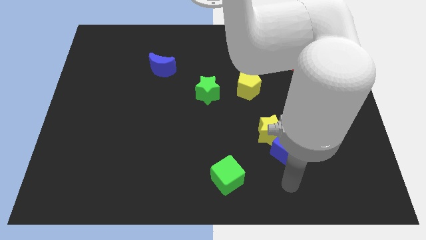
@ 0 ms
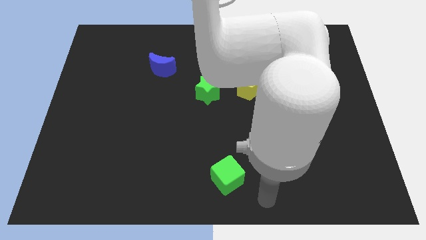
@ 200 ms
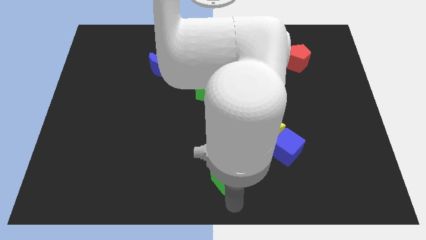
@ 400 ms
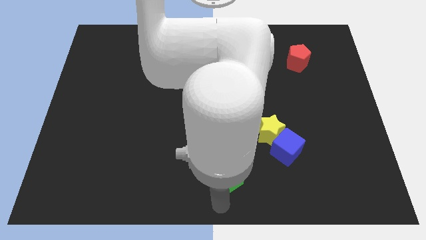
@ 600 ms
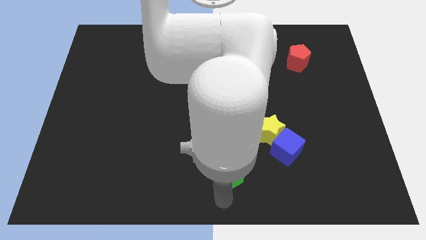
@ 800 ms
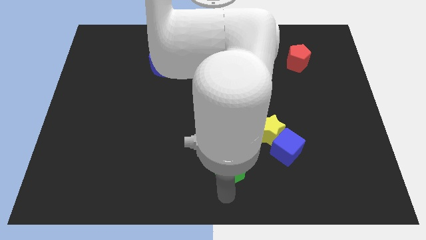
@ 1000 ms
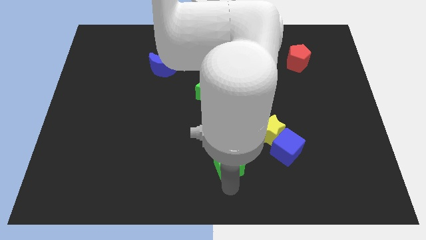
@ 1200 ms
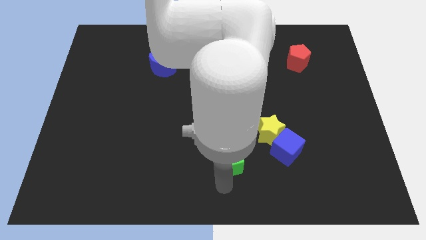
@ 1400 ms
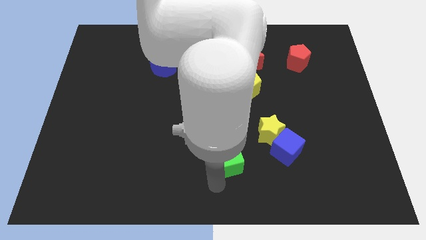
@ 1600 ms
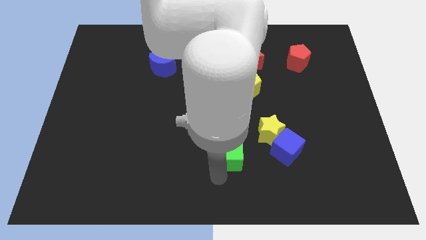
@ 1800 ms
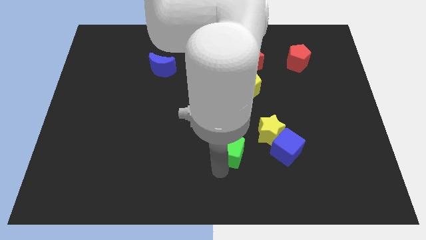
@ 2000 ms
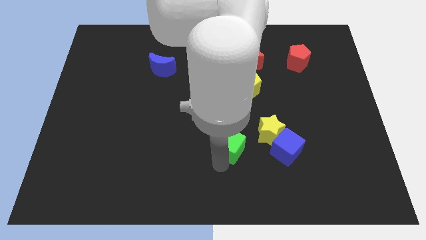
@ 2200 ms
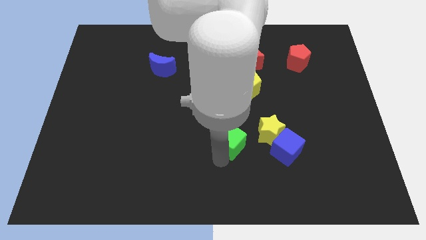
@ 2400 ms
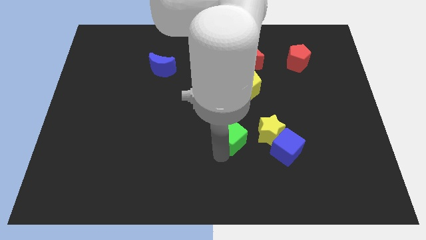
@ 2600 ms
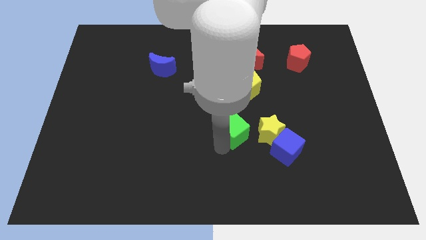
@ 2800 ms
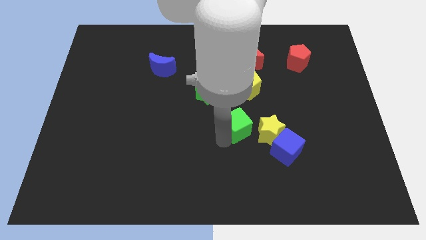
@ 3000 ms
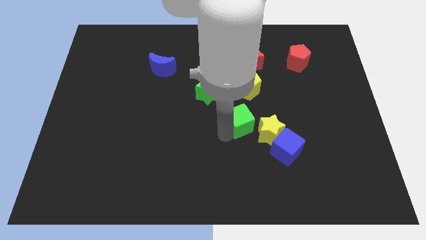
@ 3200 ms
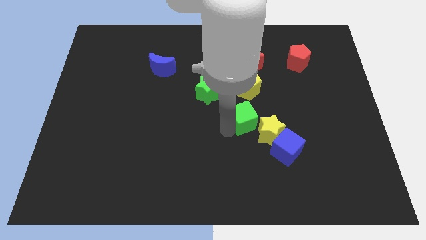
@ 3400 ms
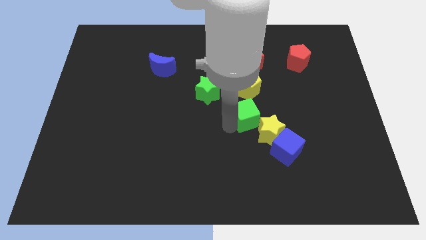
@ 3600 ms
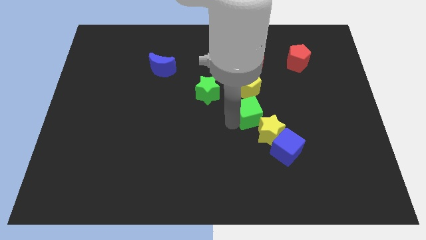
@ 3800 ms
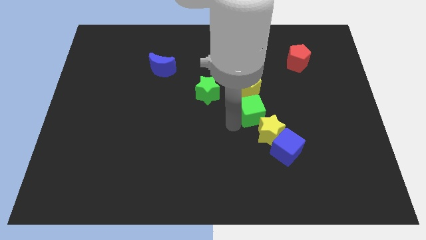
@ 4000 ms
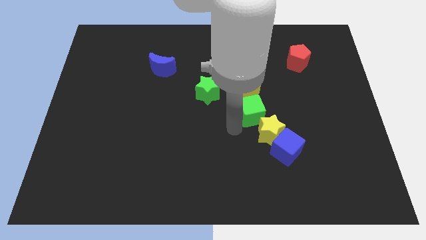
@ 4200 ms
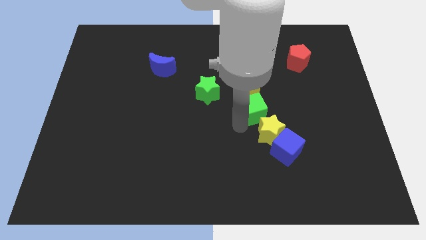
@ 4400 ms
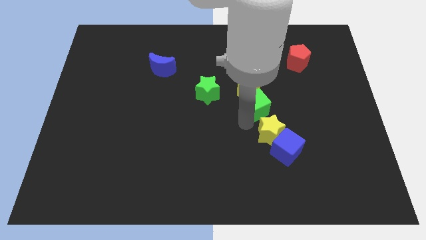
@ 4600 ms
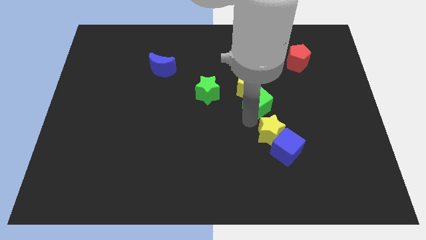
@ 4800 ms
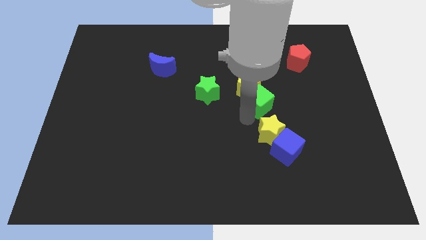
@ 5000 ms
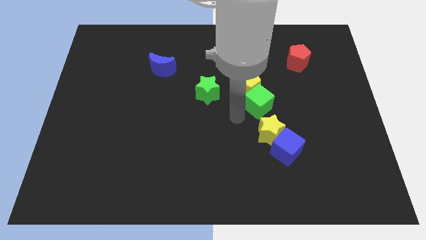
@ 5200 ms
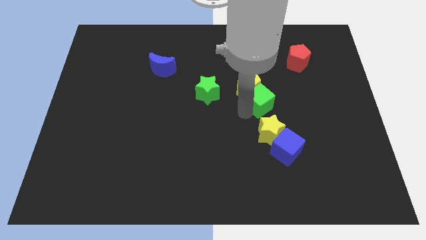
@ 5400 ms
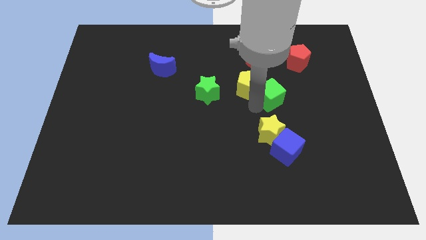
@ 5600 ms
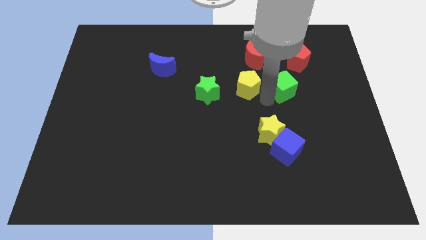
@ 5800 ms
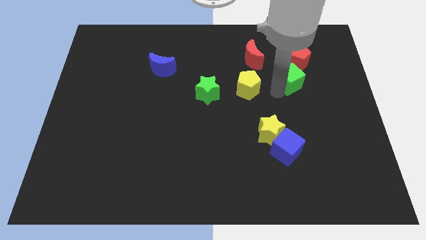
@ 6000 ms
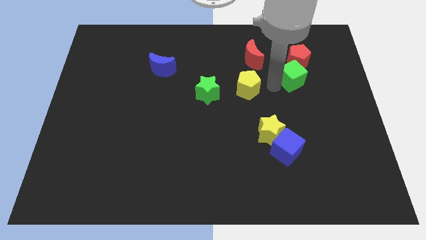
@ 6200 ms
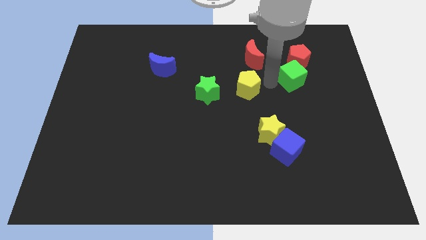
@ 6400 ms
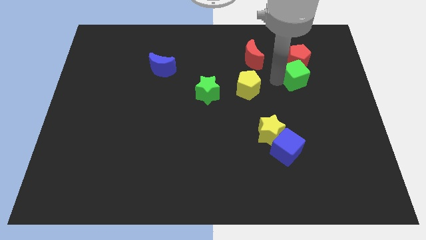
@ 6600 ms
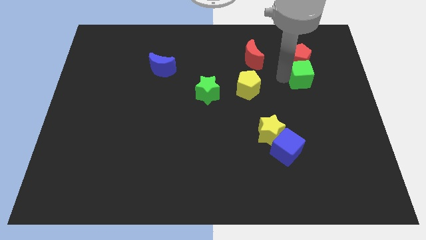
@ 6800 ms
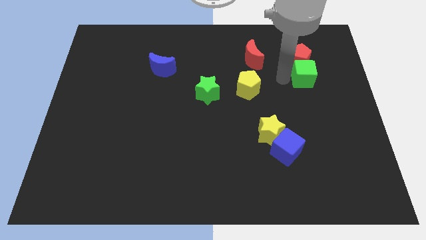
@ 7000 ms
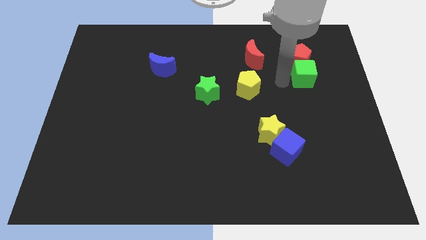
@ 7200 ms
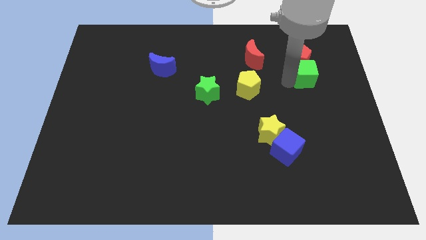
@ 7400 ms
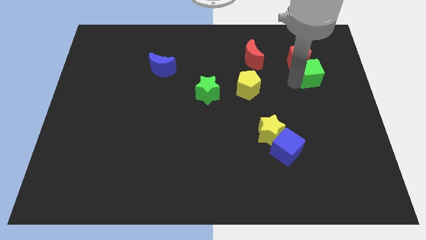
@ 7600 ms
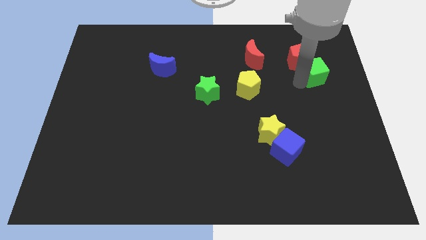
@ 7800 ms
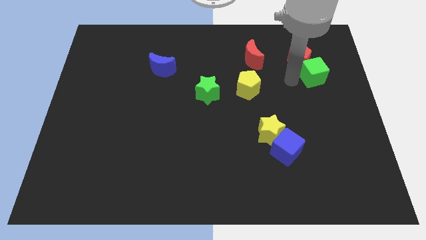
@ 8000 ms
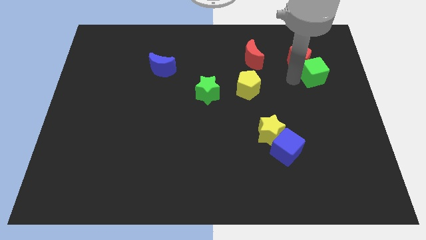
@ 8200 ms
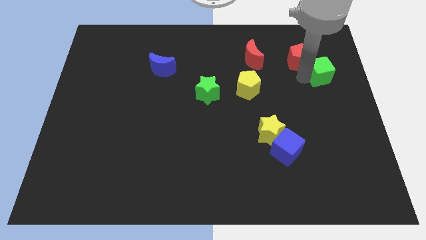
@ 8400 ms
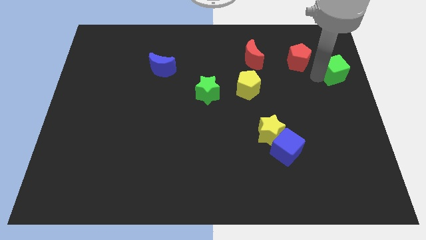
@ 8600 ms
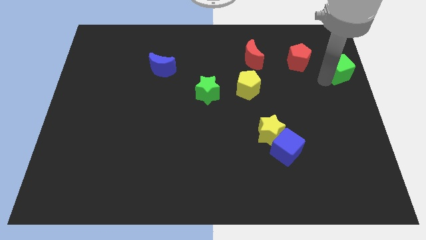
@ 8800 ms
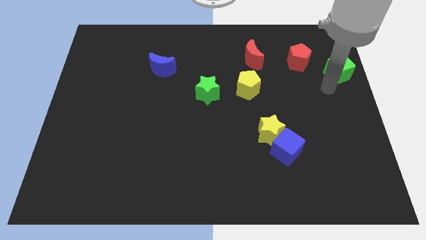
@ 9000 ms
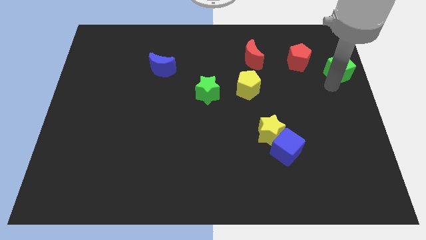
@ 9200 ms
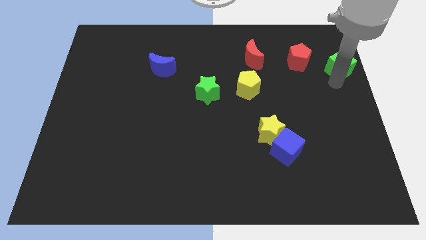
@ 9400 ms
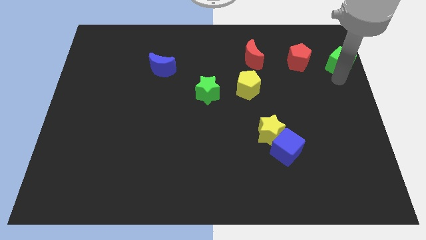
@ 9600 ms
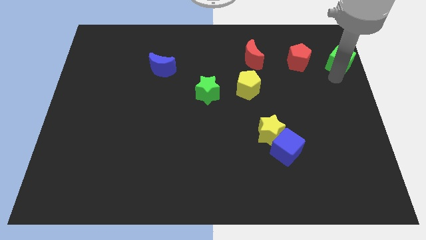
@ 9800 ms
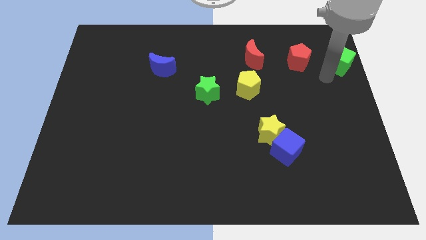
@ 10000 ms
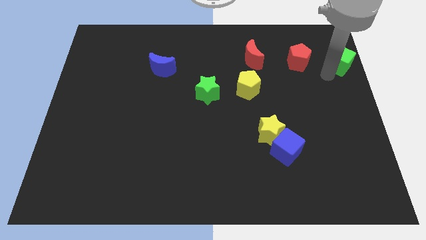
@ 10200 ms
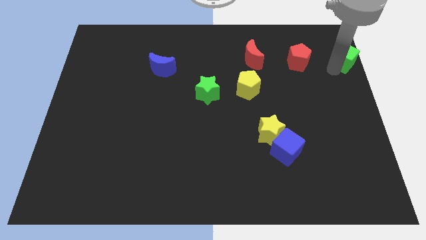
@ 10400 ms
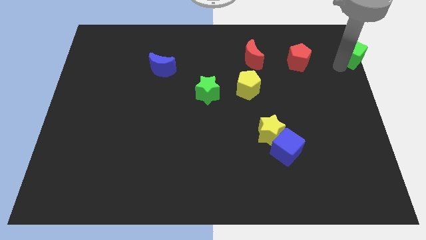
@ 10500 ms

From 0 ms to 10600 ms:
move the green cube to the top right of the board

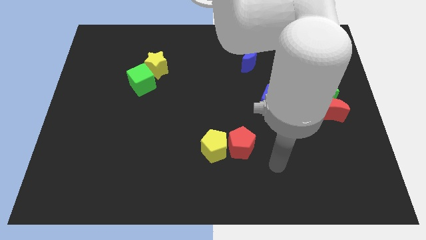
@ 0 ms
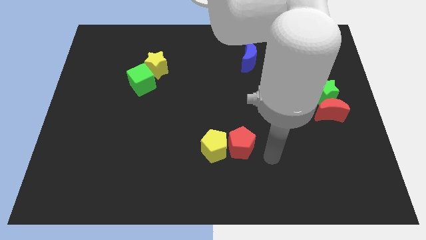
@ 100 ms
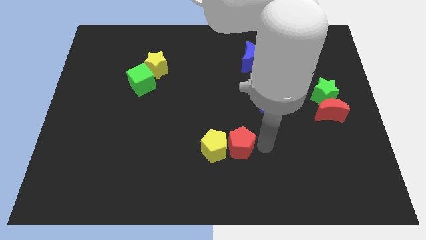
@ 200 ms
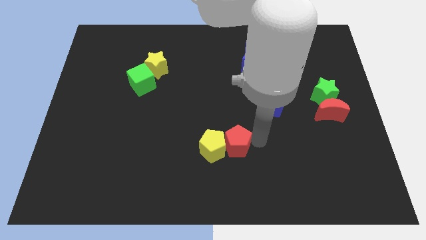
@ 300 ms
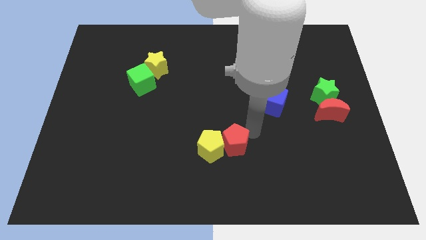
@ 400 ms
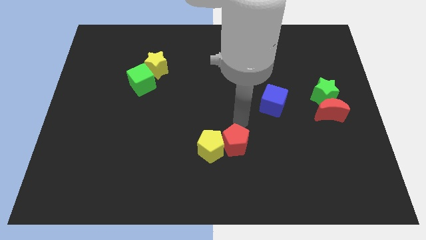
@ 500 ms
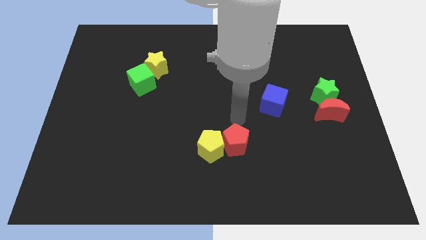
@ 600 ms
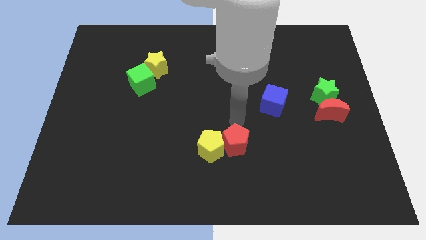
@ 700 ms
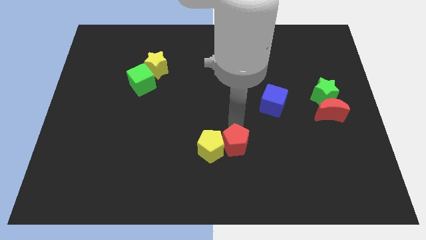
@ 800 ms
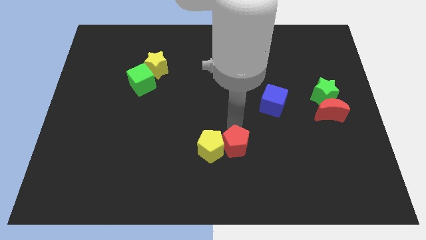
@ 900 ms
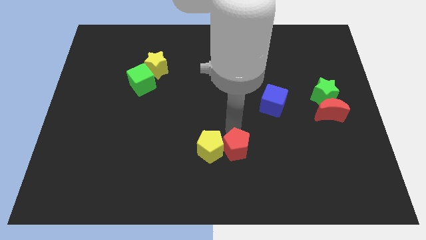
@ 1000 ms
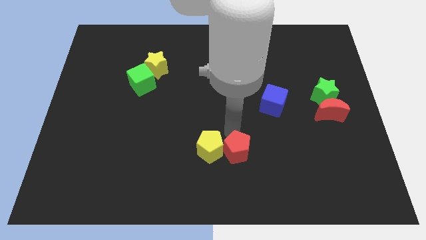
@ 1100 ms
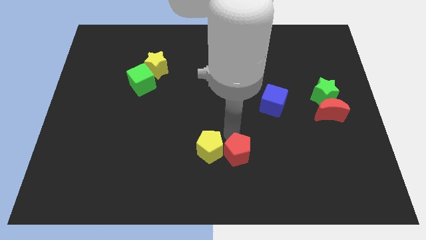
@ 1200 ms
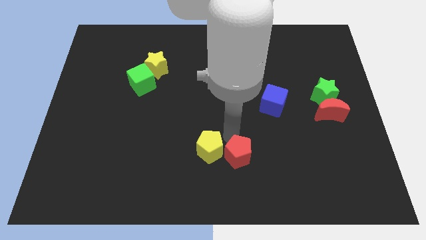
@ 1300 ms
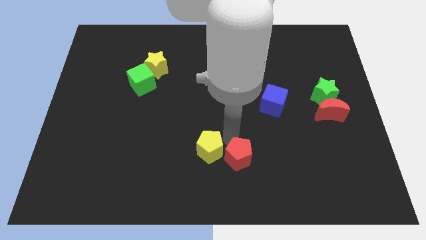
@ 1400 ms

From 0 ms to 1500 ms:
push the red pentagon to the bottom side
